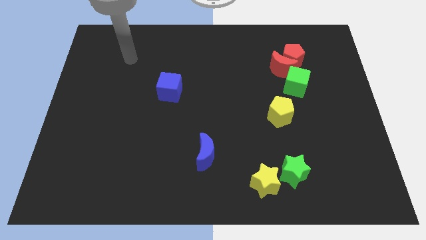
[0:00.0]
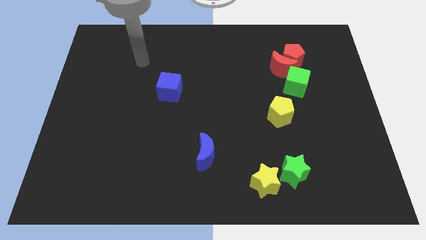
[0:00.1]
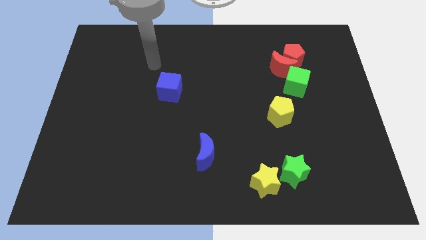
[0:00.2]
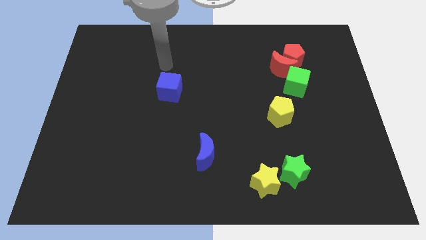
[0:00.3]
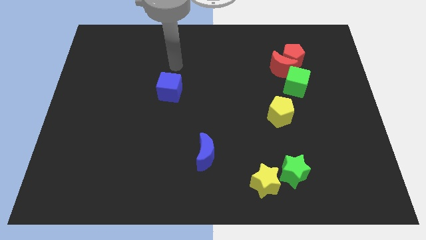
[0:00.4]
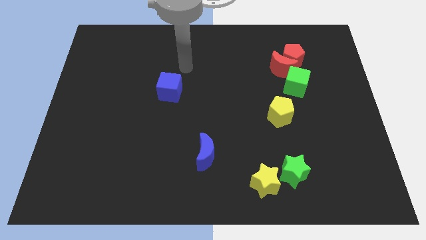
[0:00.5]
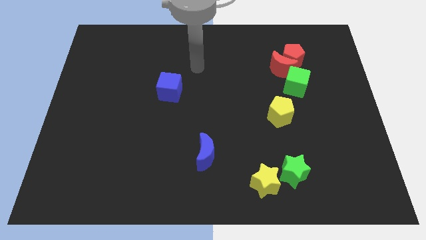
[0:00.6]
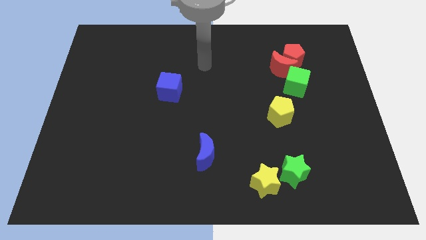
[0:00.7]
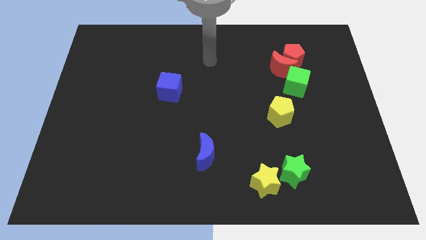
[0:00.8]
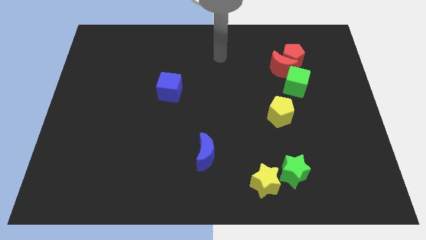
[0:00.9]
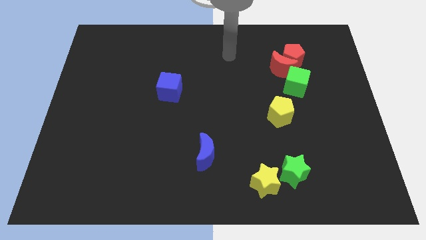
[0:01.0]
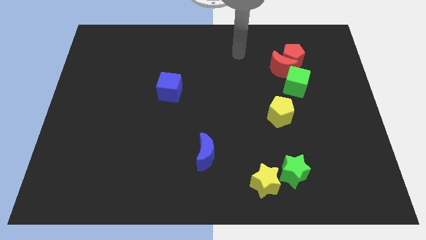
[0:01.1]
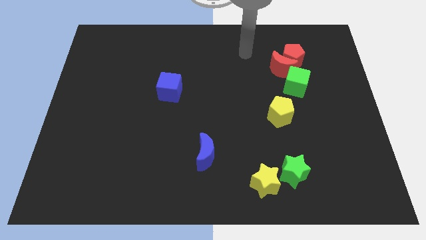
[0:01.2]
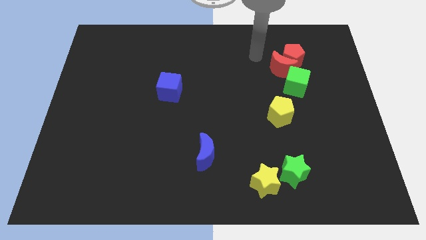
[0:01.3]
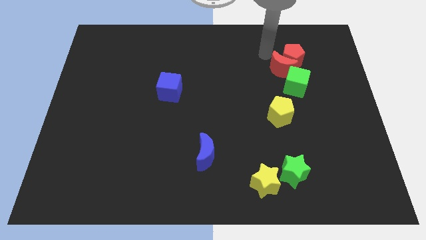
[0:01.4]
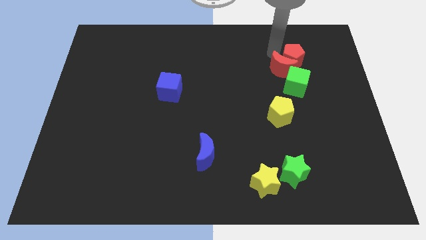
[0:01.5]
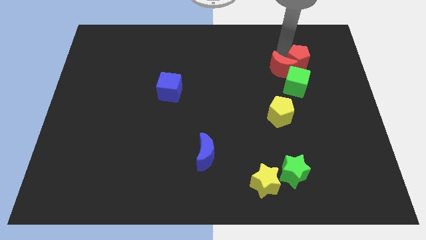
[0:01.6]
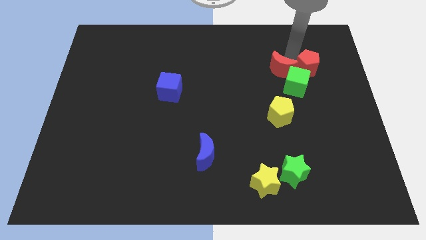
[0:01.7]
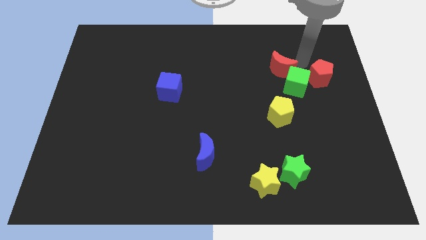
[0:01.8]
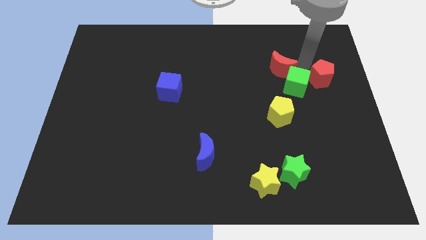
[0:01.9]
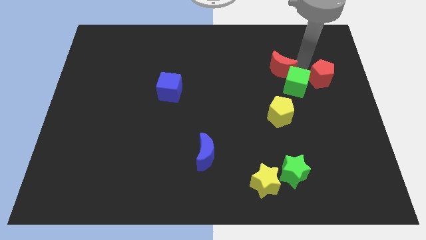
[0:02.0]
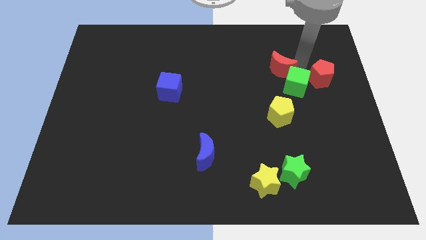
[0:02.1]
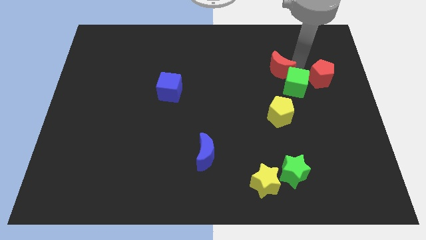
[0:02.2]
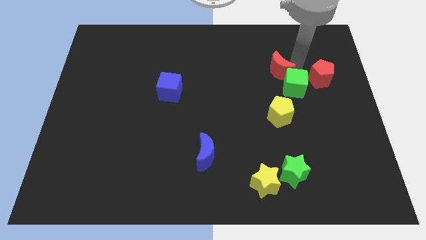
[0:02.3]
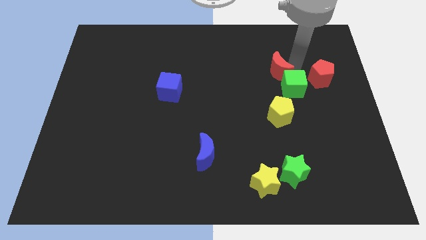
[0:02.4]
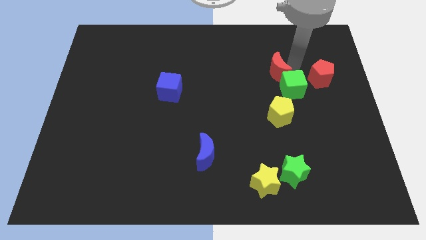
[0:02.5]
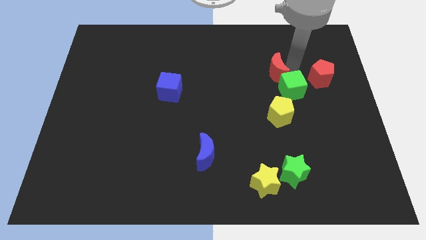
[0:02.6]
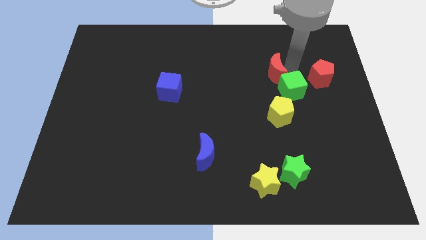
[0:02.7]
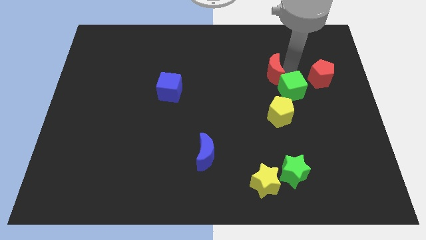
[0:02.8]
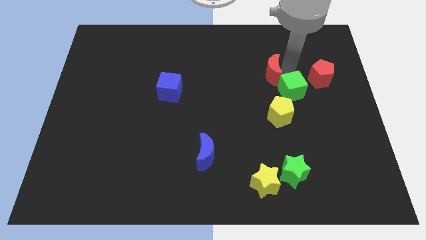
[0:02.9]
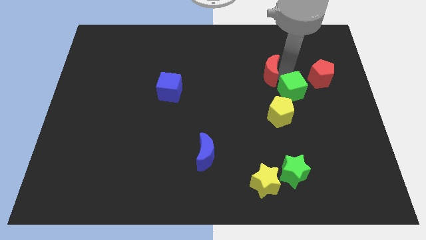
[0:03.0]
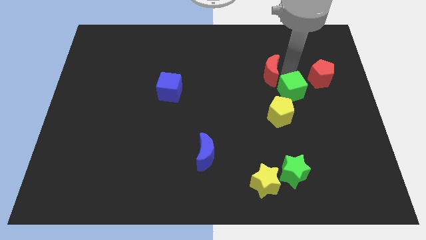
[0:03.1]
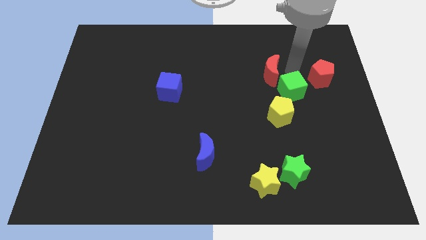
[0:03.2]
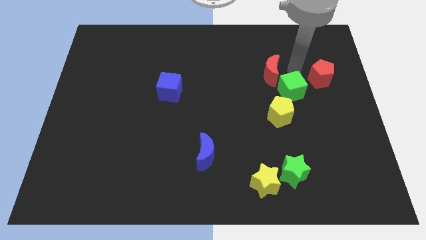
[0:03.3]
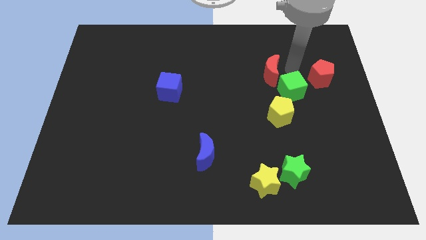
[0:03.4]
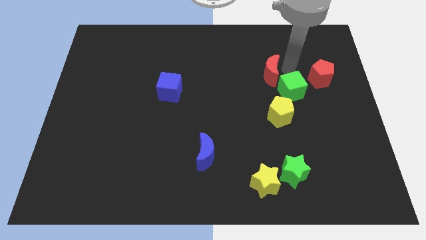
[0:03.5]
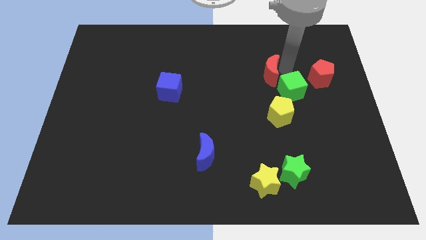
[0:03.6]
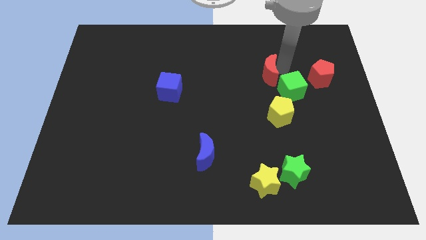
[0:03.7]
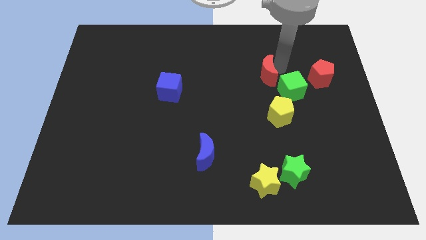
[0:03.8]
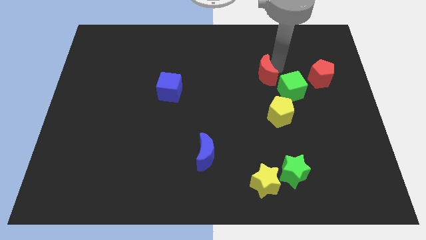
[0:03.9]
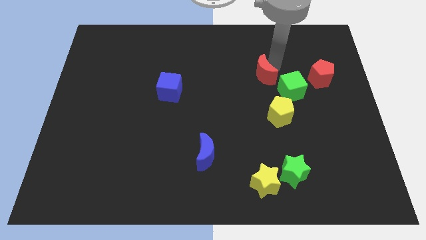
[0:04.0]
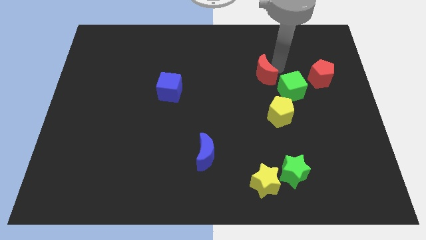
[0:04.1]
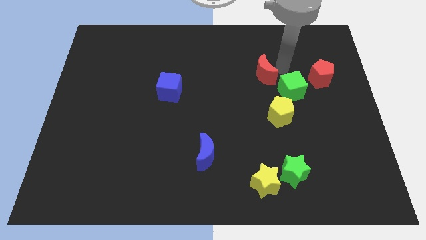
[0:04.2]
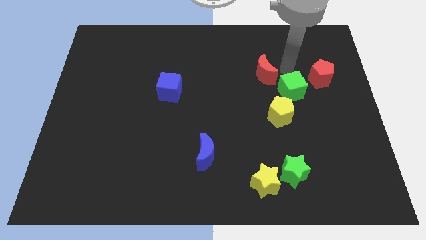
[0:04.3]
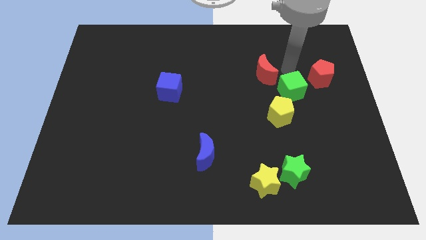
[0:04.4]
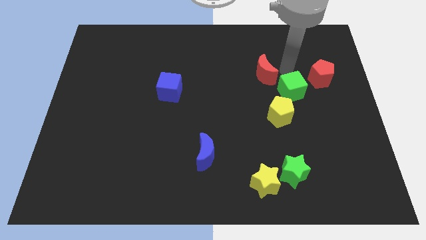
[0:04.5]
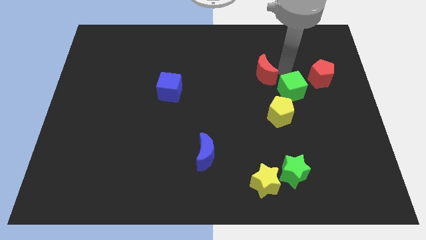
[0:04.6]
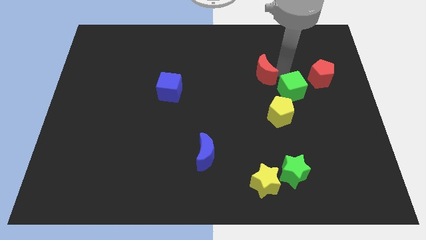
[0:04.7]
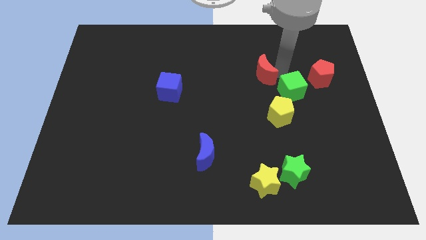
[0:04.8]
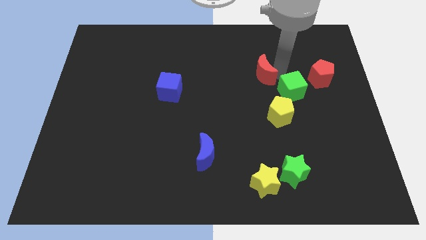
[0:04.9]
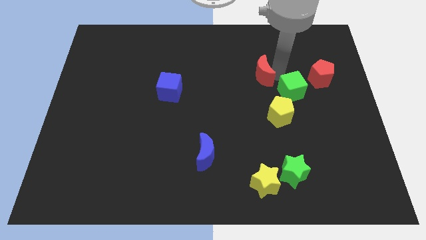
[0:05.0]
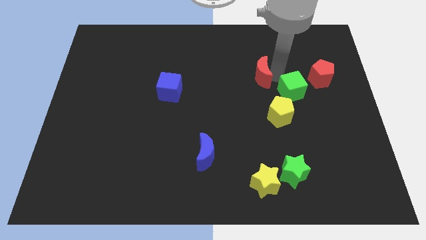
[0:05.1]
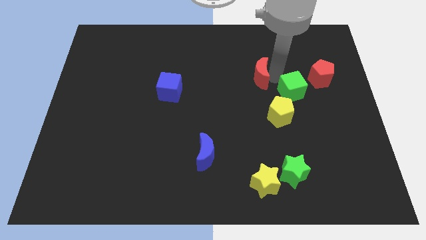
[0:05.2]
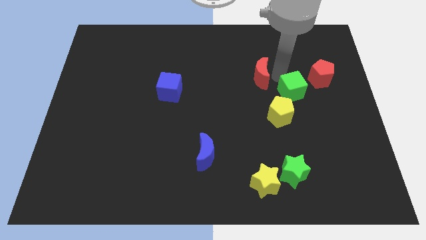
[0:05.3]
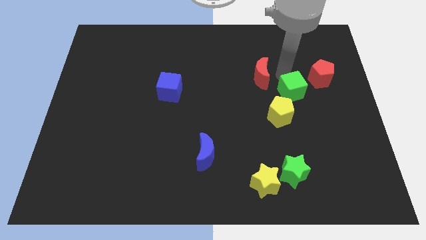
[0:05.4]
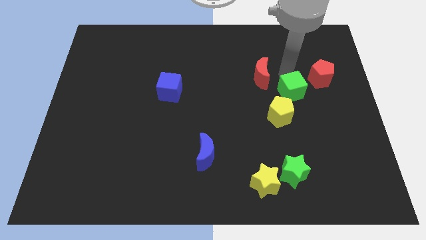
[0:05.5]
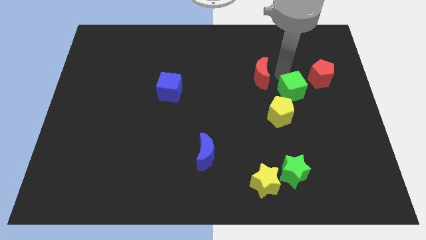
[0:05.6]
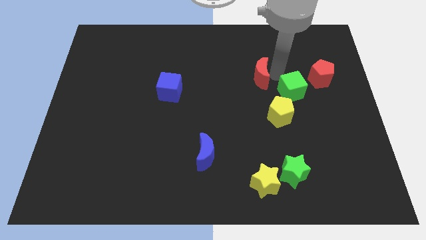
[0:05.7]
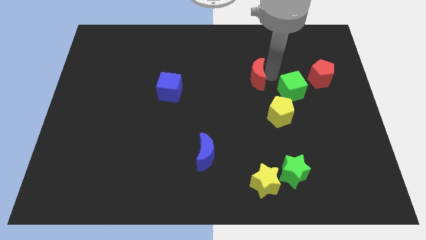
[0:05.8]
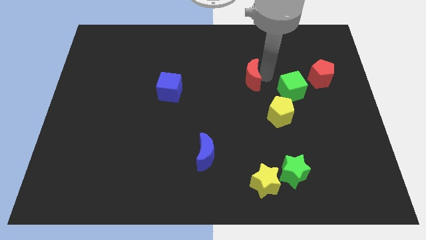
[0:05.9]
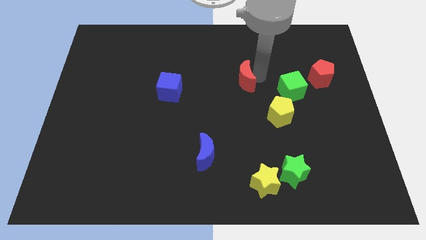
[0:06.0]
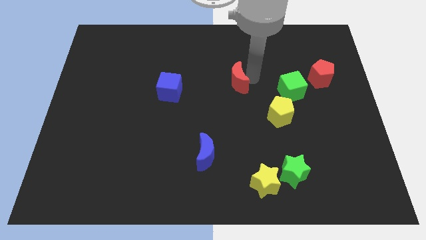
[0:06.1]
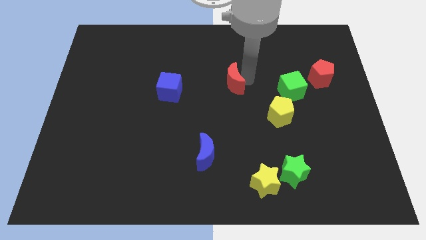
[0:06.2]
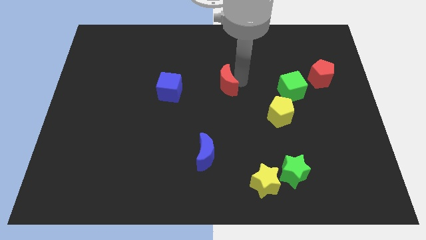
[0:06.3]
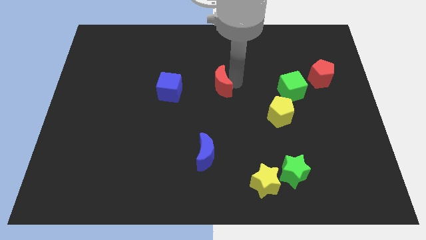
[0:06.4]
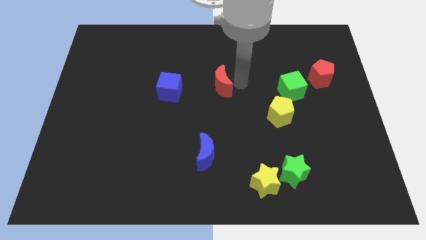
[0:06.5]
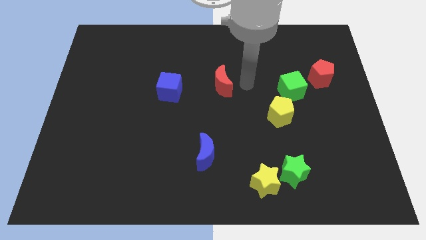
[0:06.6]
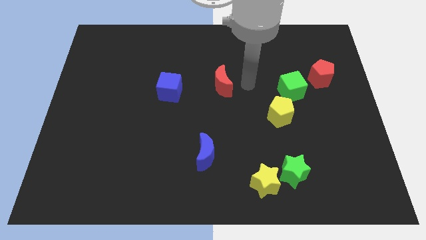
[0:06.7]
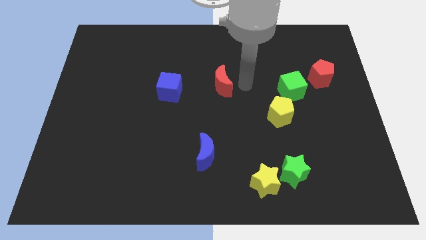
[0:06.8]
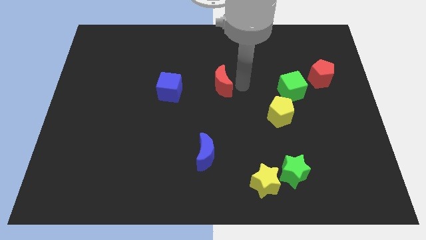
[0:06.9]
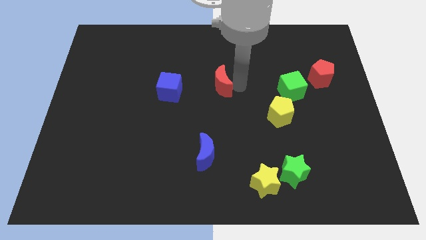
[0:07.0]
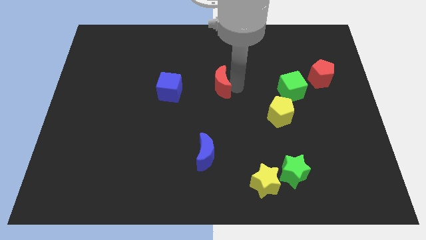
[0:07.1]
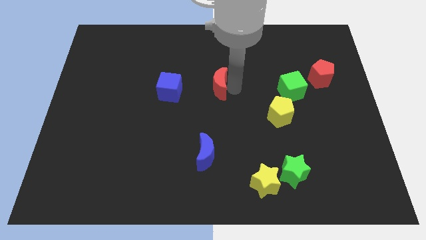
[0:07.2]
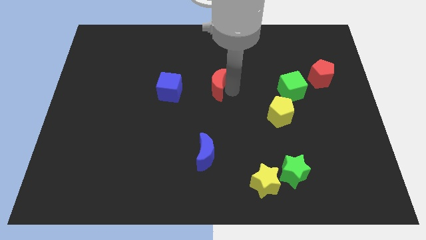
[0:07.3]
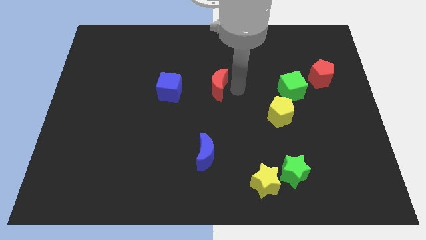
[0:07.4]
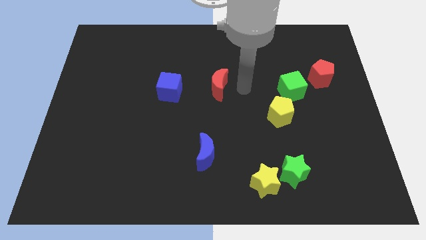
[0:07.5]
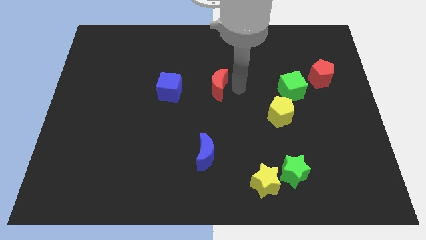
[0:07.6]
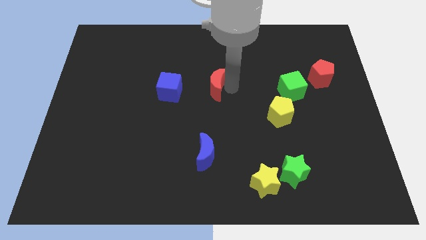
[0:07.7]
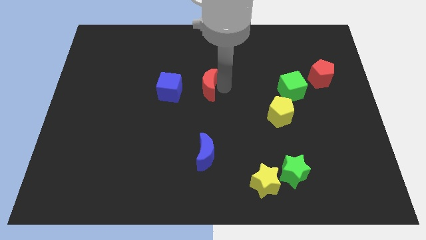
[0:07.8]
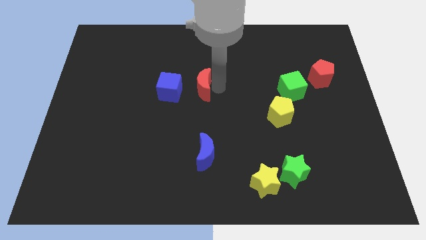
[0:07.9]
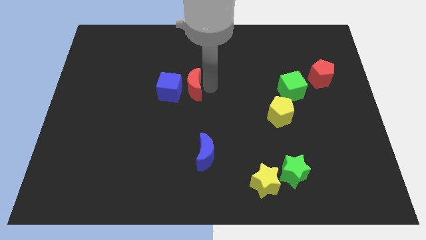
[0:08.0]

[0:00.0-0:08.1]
put the red moon close to the blue cube
